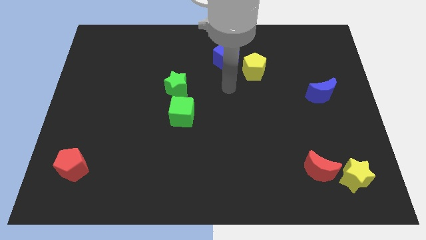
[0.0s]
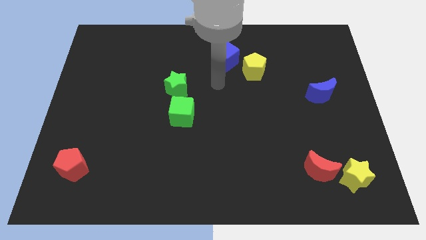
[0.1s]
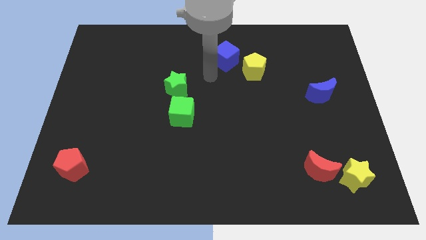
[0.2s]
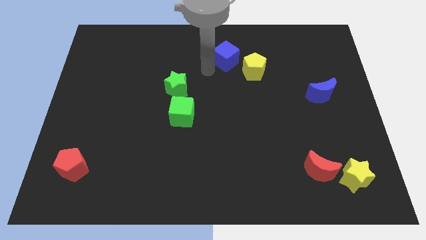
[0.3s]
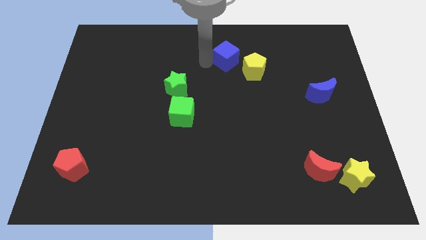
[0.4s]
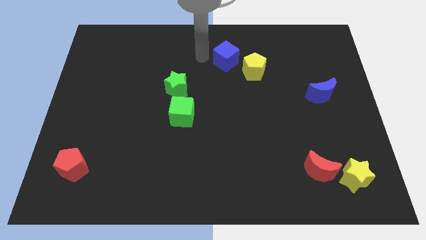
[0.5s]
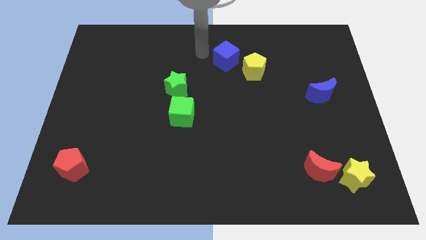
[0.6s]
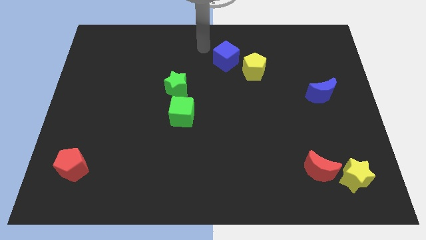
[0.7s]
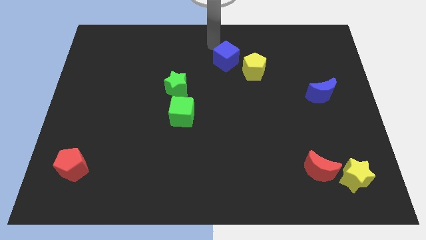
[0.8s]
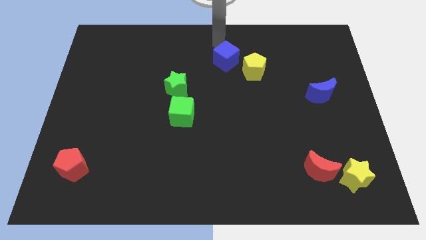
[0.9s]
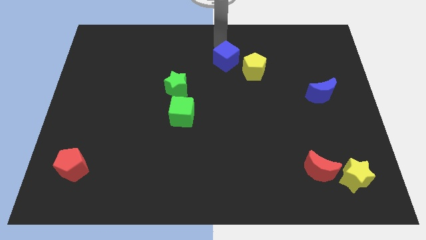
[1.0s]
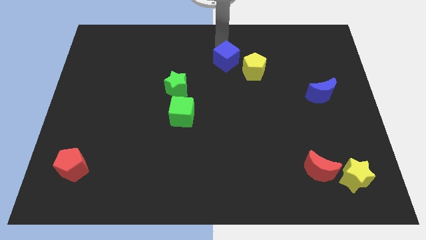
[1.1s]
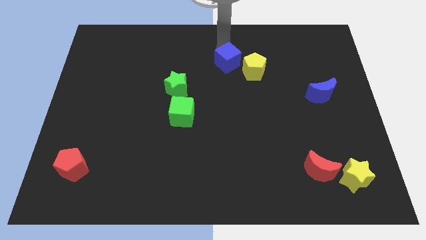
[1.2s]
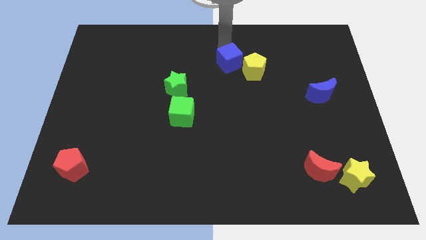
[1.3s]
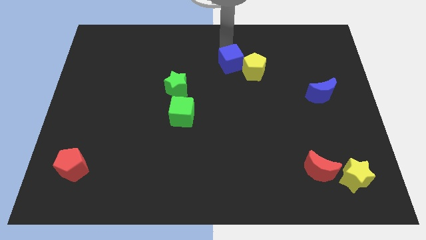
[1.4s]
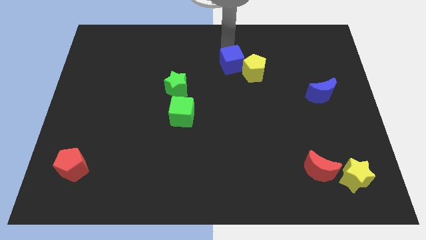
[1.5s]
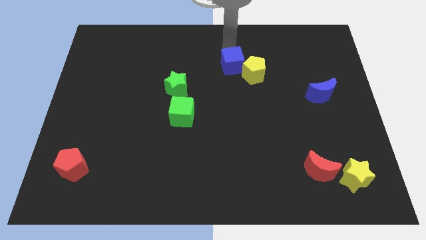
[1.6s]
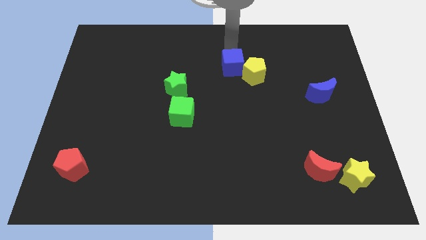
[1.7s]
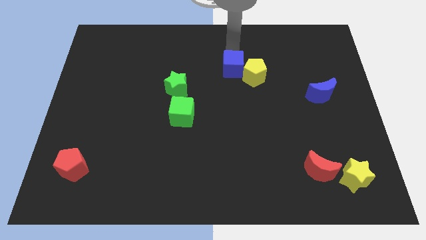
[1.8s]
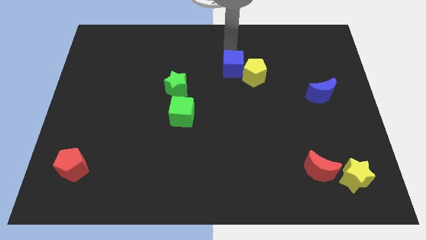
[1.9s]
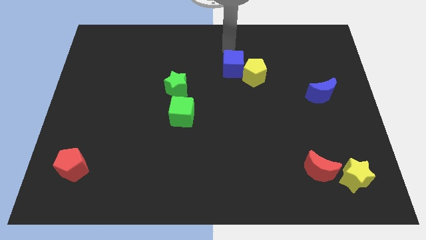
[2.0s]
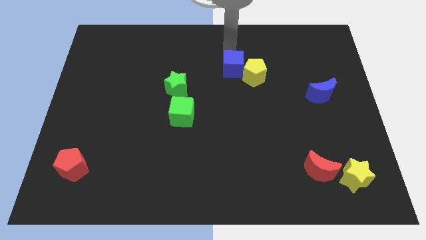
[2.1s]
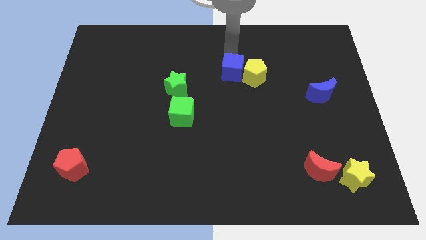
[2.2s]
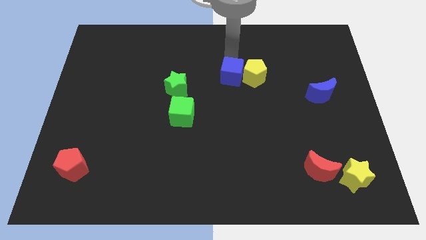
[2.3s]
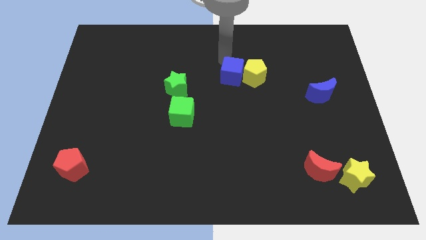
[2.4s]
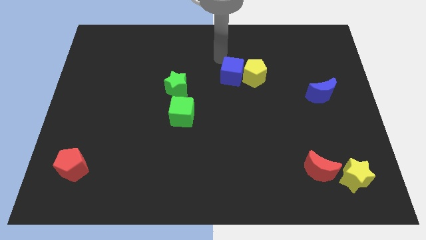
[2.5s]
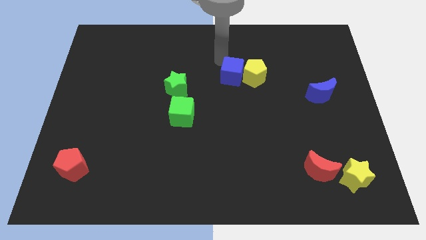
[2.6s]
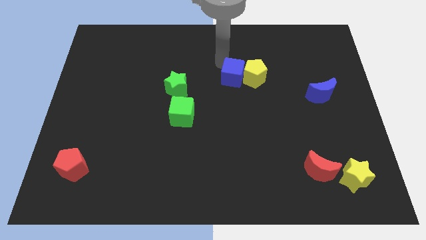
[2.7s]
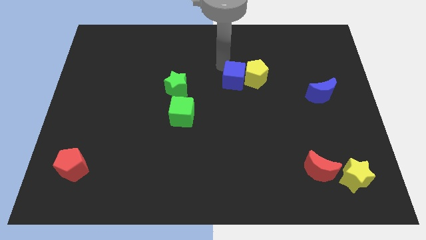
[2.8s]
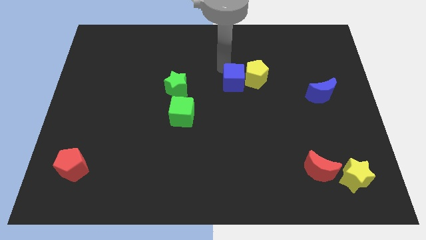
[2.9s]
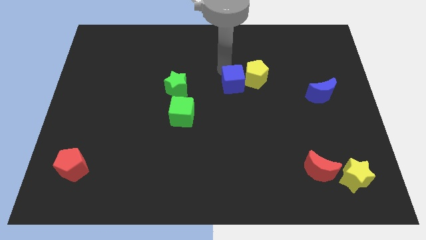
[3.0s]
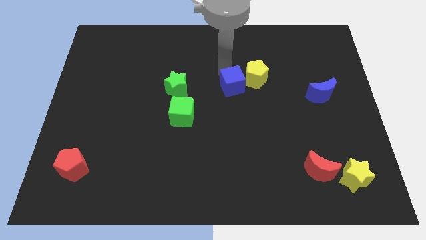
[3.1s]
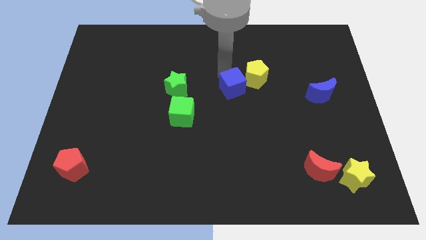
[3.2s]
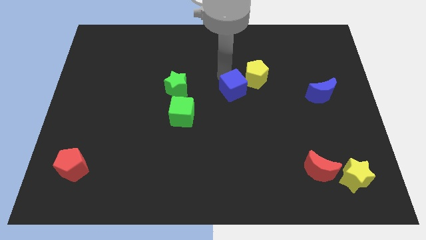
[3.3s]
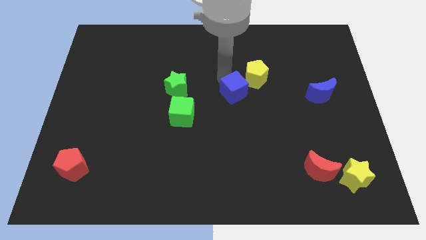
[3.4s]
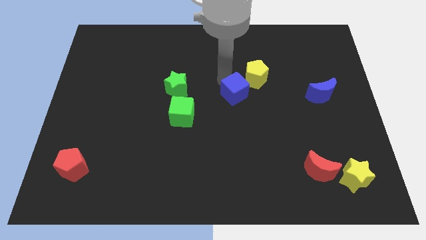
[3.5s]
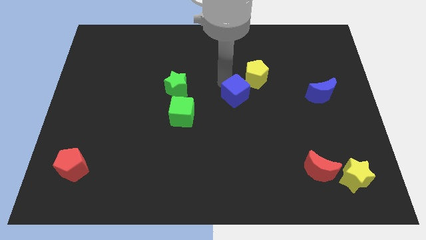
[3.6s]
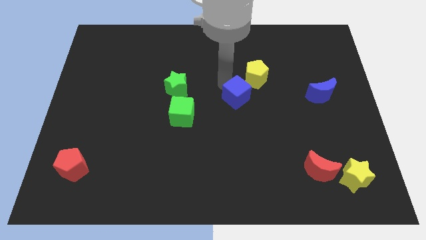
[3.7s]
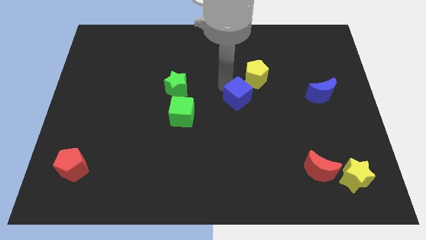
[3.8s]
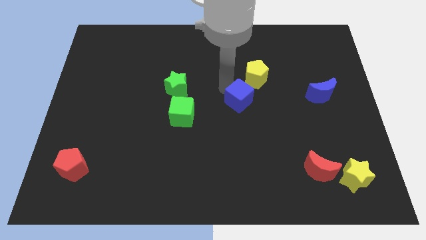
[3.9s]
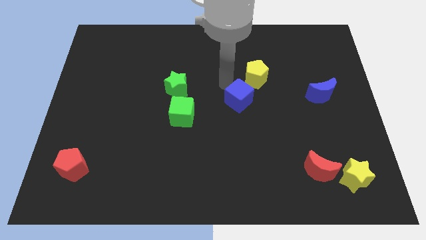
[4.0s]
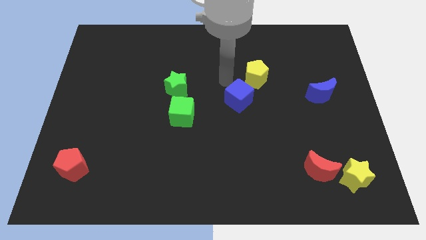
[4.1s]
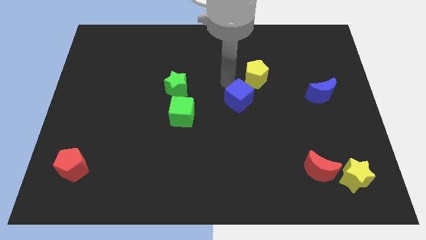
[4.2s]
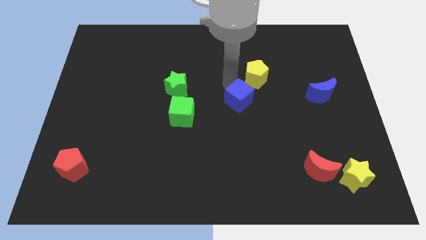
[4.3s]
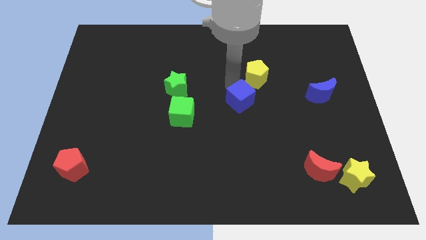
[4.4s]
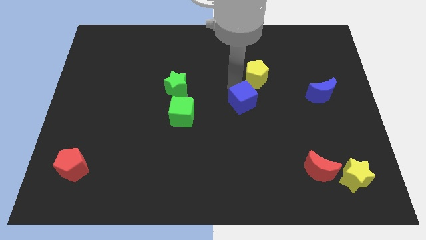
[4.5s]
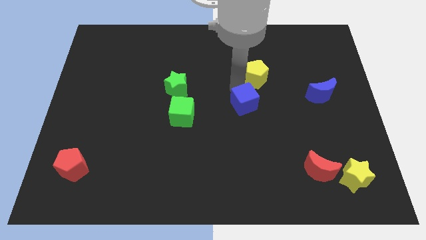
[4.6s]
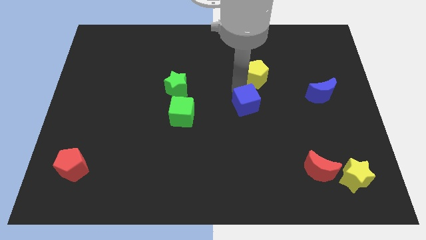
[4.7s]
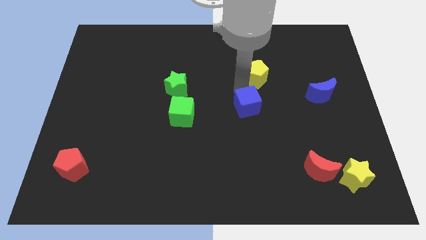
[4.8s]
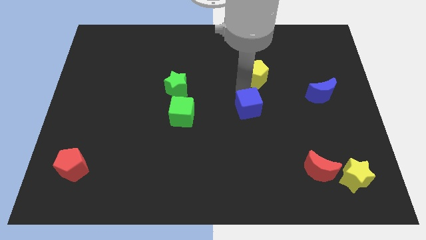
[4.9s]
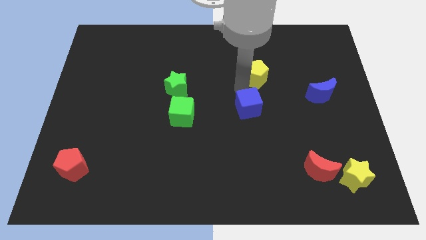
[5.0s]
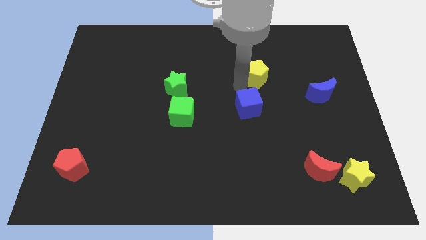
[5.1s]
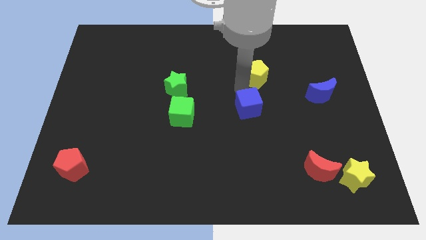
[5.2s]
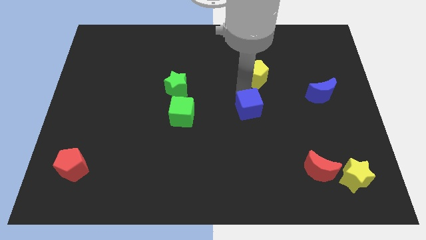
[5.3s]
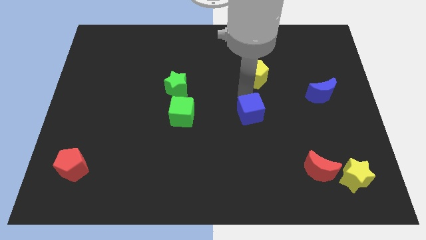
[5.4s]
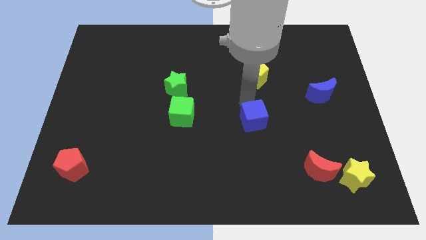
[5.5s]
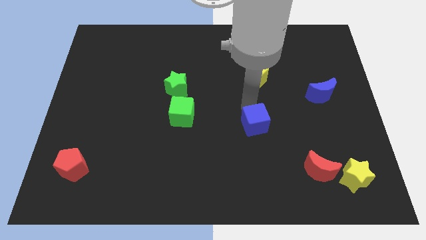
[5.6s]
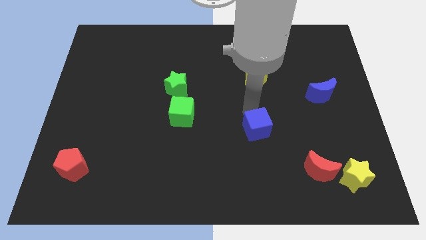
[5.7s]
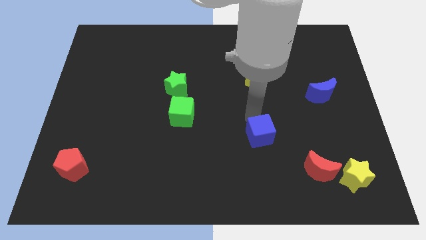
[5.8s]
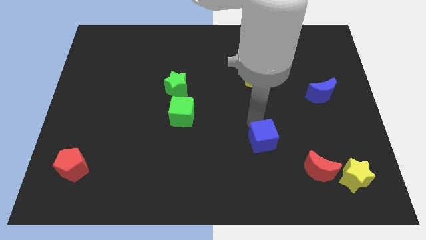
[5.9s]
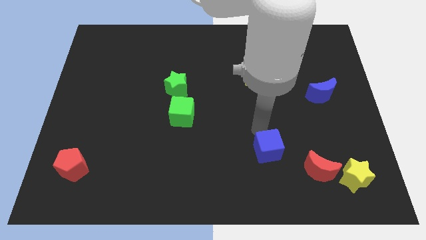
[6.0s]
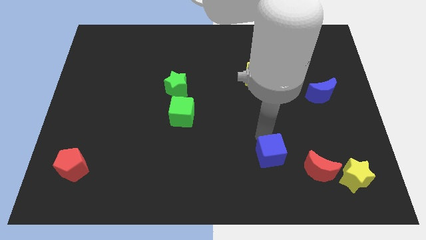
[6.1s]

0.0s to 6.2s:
move the blue cube just left of the red moon

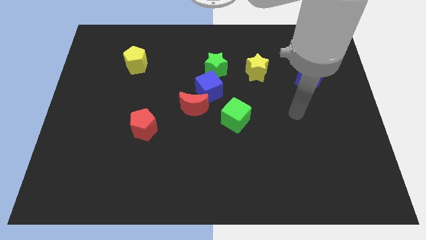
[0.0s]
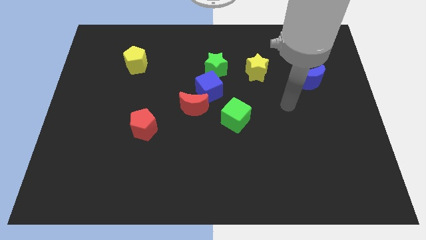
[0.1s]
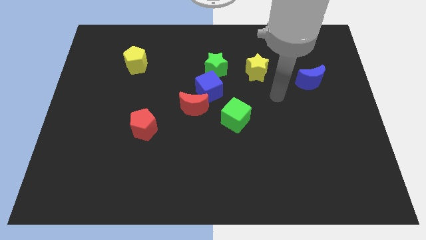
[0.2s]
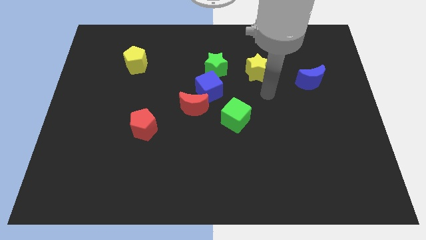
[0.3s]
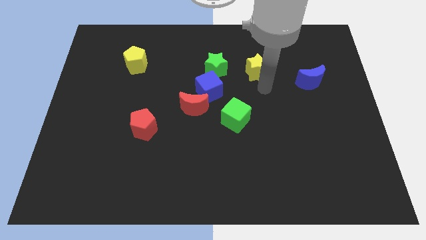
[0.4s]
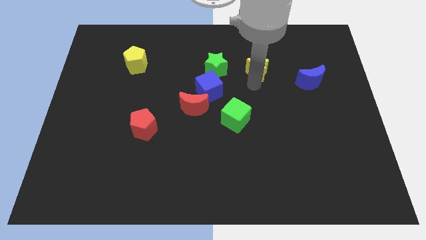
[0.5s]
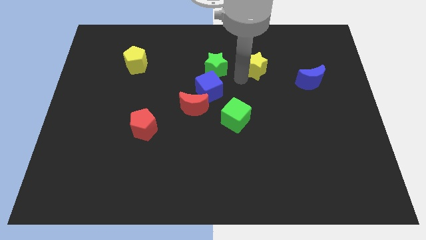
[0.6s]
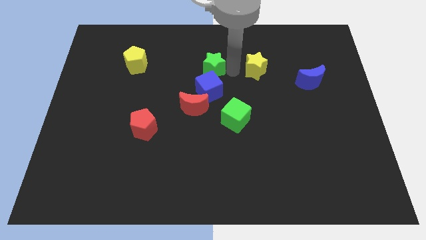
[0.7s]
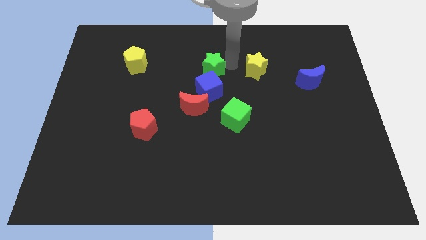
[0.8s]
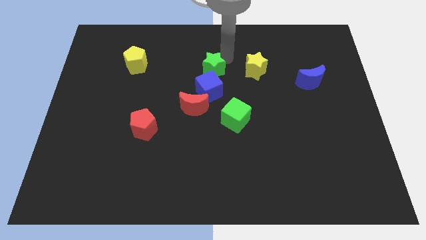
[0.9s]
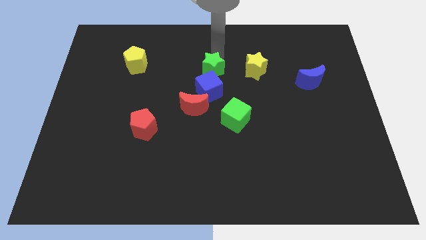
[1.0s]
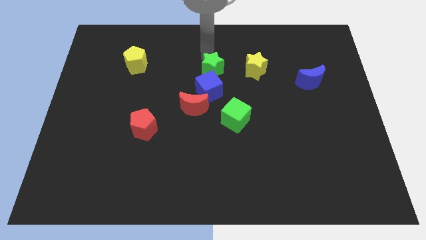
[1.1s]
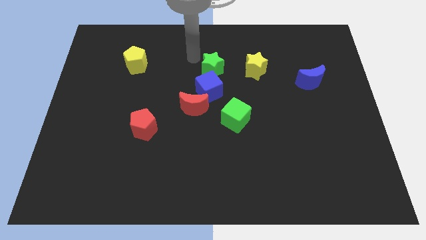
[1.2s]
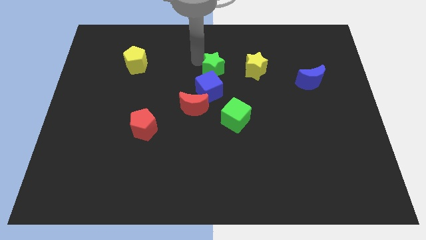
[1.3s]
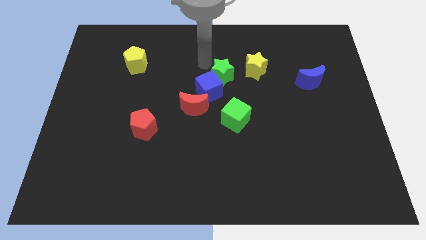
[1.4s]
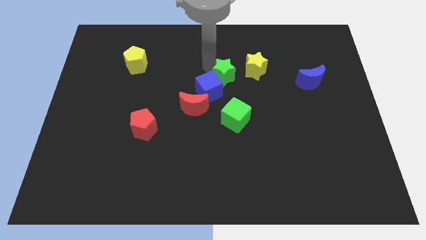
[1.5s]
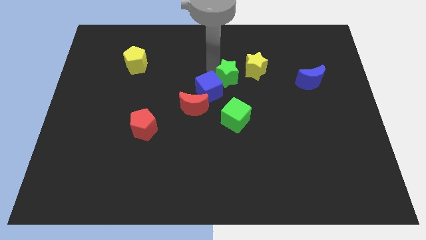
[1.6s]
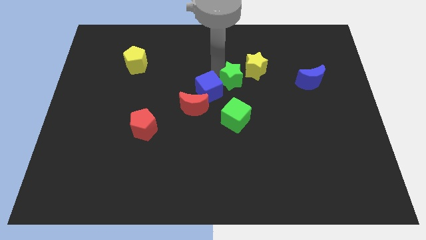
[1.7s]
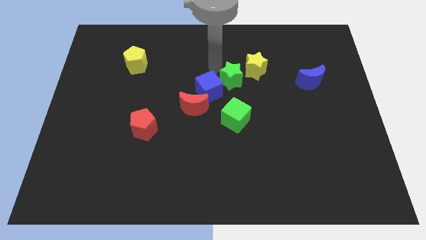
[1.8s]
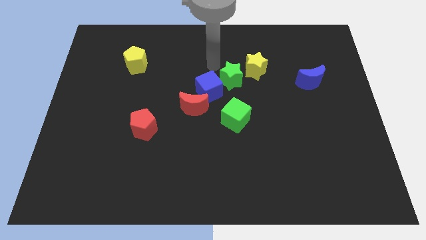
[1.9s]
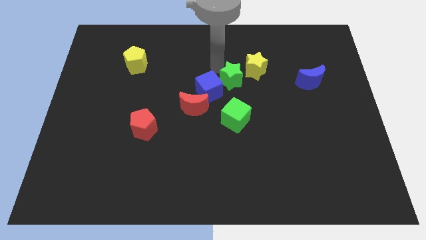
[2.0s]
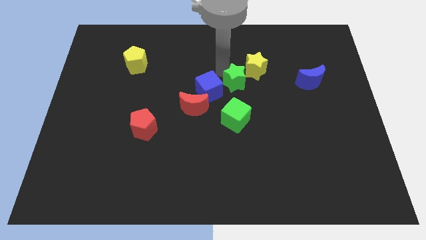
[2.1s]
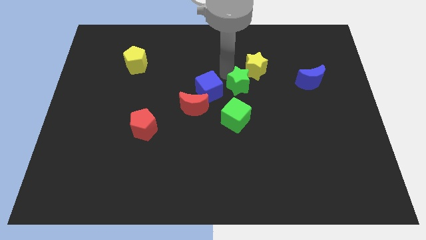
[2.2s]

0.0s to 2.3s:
move the green star to the bottom of the yellow star
